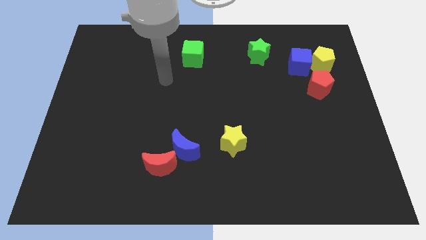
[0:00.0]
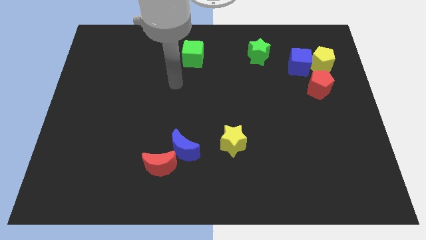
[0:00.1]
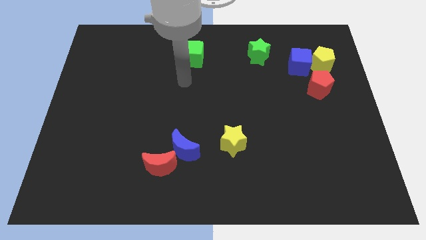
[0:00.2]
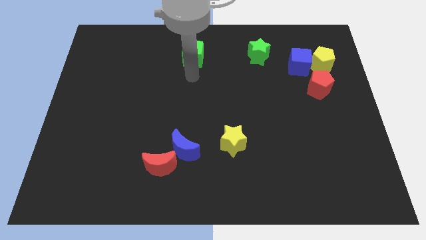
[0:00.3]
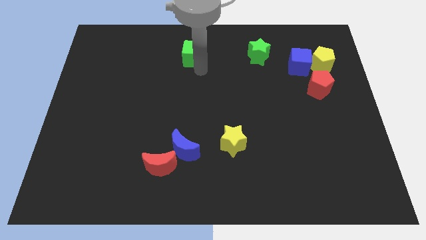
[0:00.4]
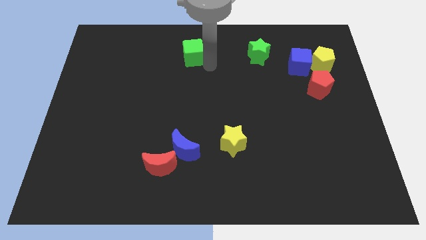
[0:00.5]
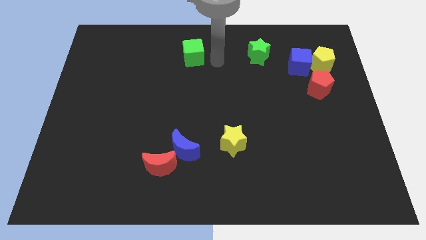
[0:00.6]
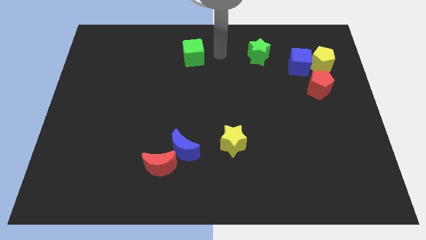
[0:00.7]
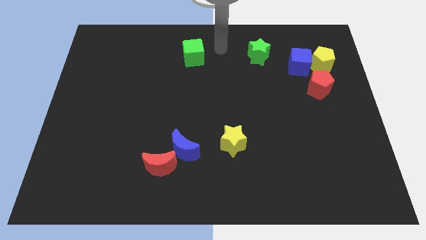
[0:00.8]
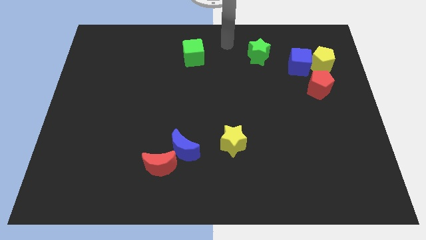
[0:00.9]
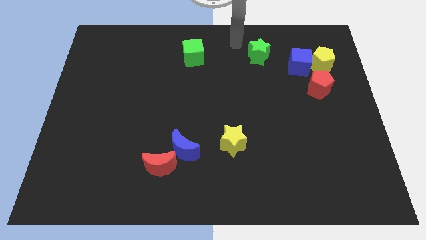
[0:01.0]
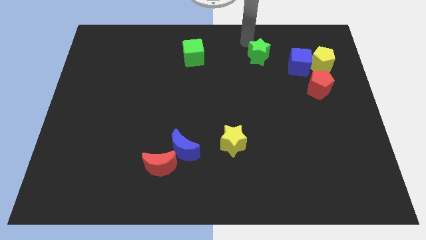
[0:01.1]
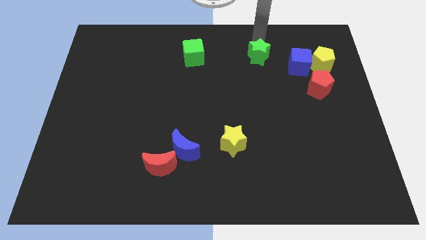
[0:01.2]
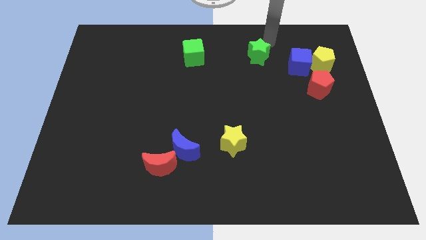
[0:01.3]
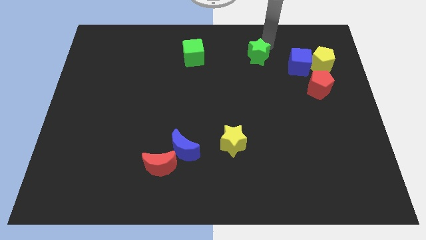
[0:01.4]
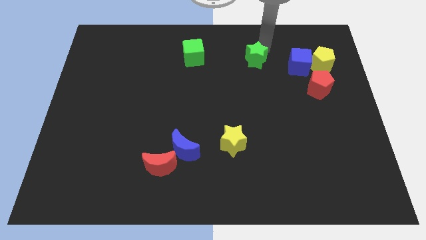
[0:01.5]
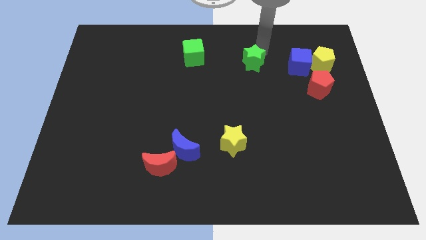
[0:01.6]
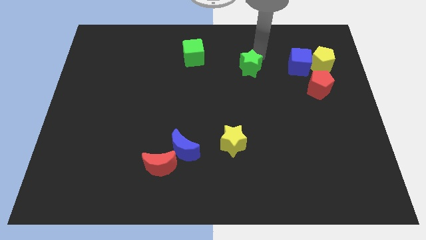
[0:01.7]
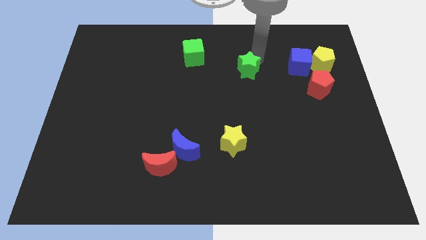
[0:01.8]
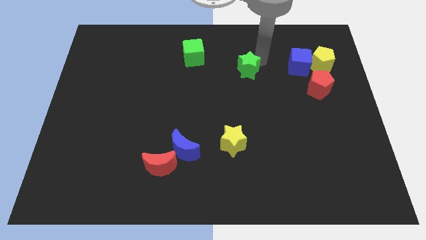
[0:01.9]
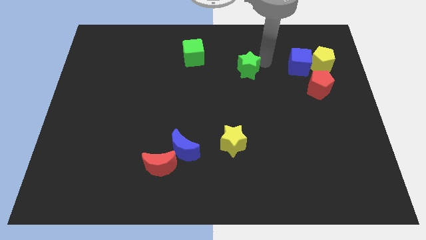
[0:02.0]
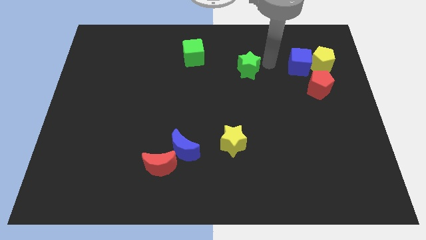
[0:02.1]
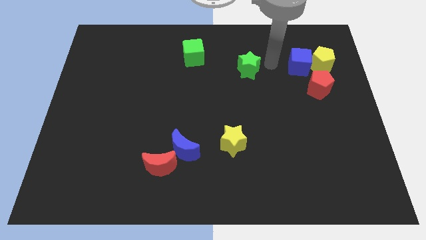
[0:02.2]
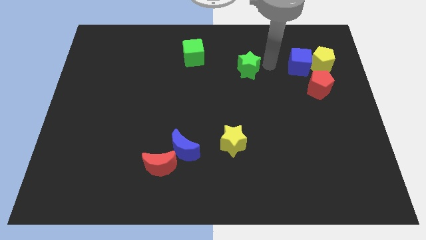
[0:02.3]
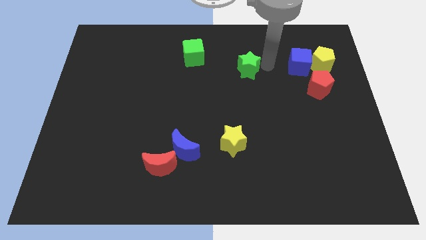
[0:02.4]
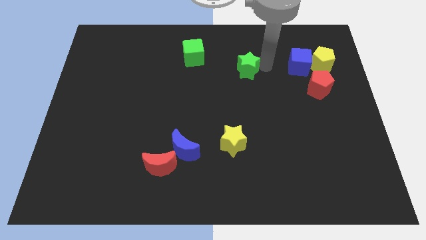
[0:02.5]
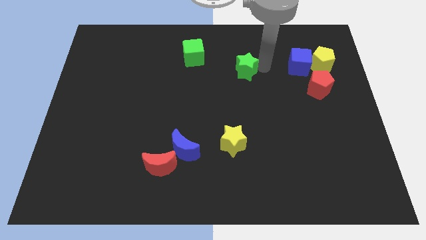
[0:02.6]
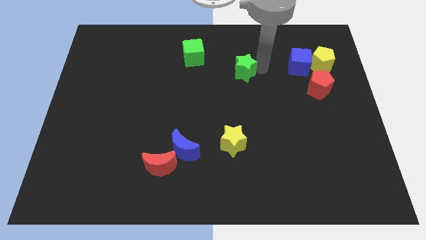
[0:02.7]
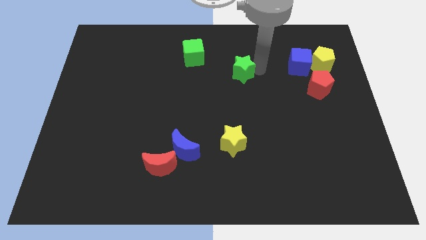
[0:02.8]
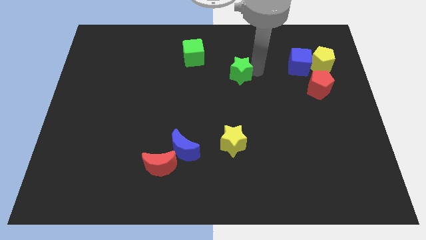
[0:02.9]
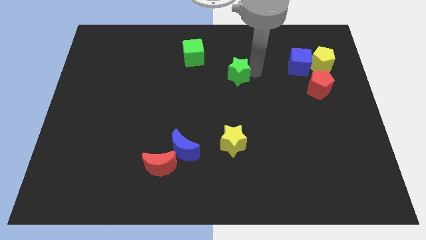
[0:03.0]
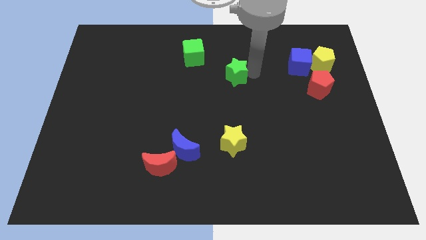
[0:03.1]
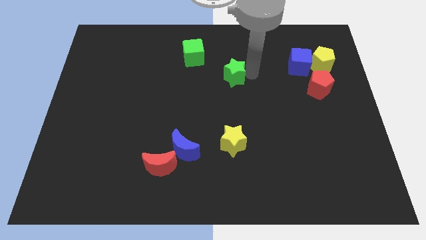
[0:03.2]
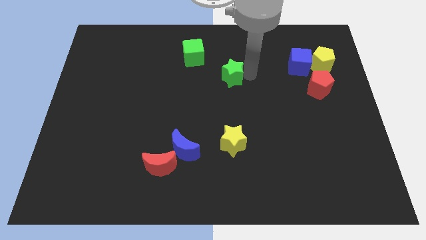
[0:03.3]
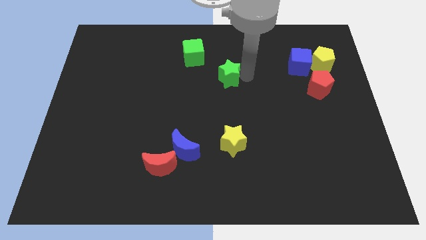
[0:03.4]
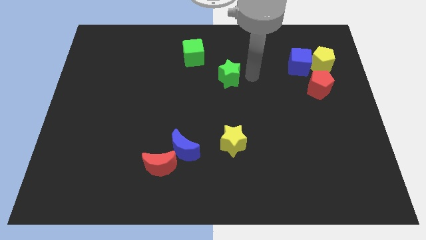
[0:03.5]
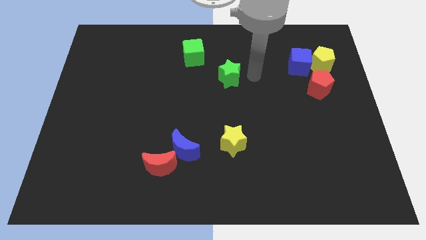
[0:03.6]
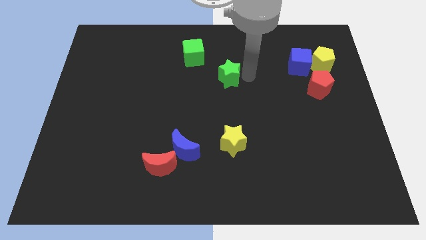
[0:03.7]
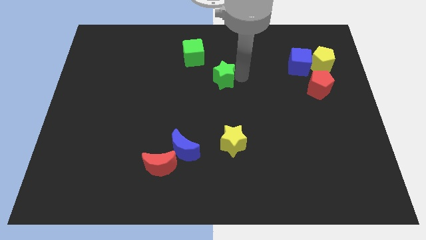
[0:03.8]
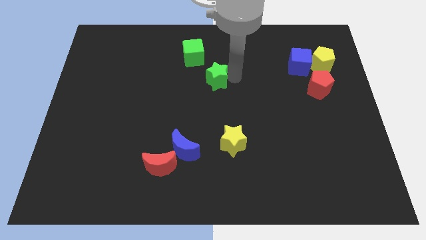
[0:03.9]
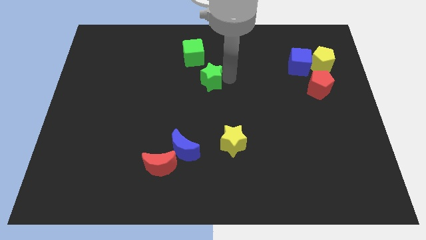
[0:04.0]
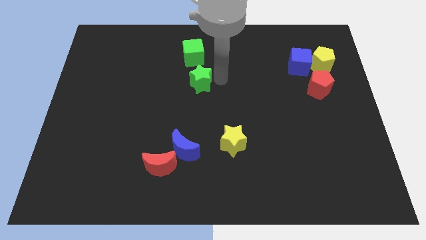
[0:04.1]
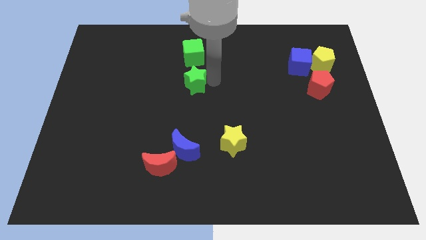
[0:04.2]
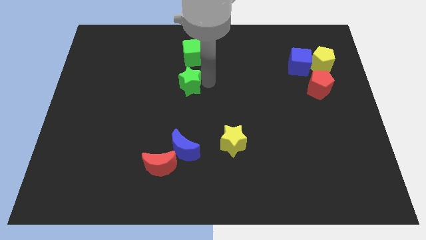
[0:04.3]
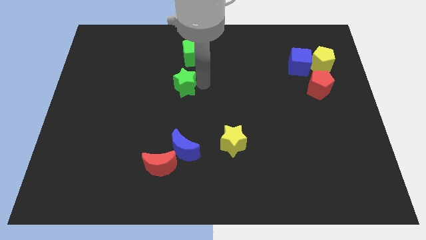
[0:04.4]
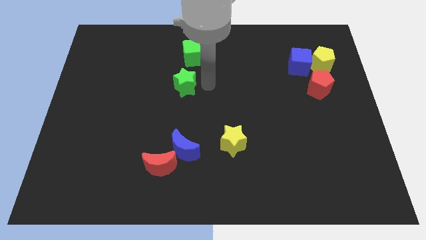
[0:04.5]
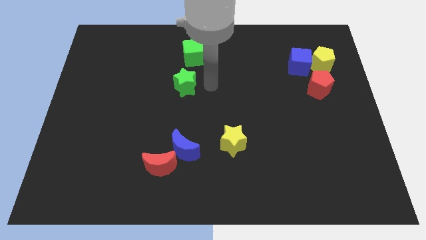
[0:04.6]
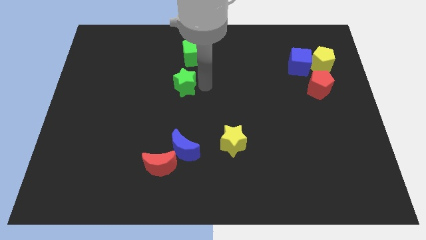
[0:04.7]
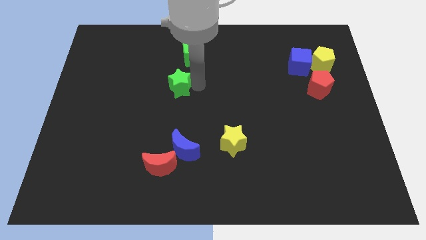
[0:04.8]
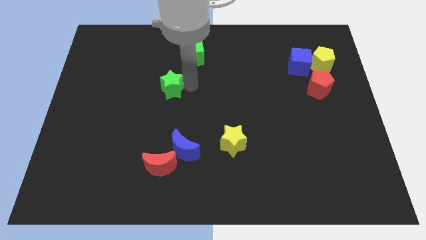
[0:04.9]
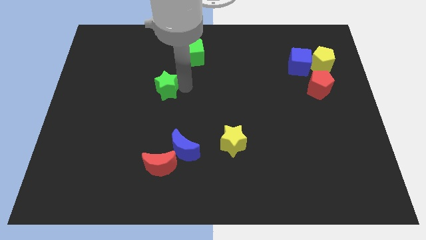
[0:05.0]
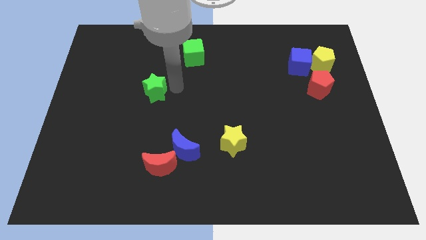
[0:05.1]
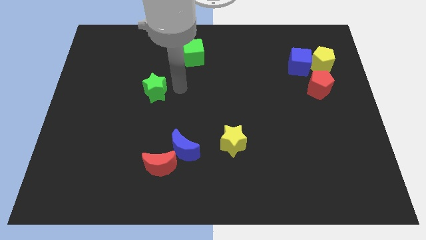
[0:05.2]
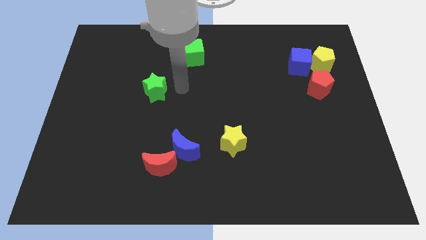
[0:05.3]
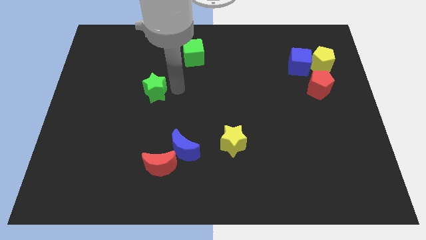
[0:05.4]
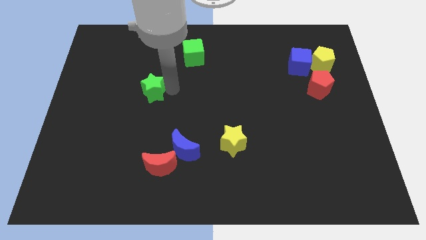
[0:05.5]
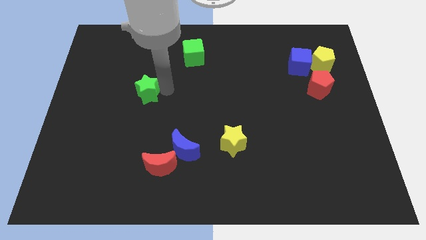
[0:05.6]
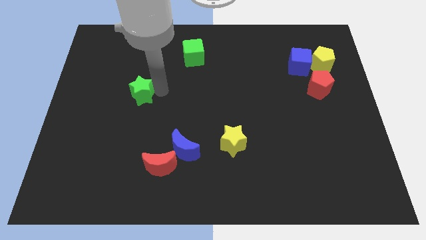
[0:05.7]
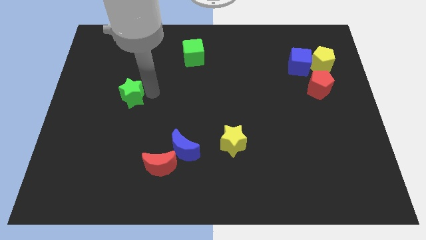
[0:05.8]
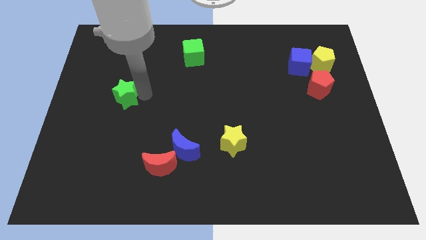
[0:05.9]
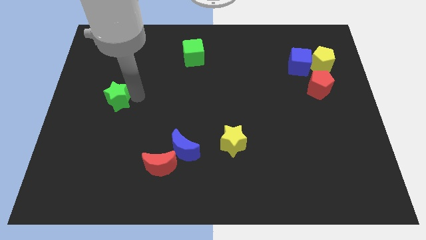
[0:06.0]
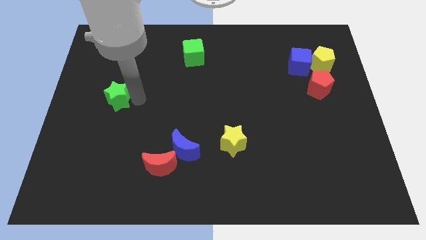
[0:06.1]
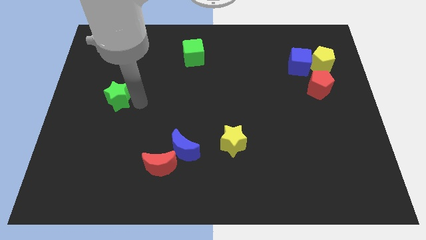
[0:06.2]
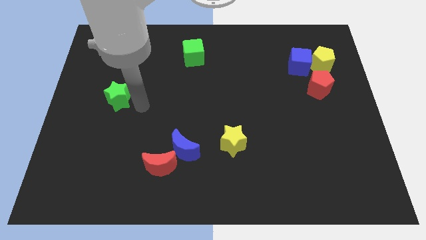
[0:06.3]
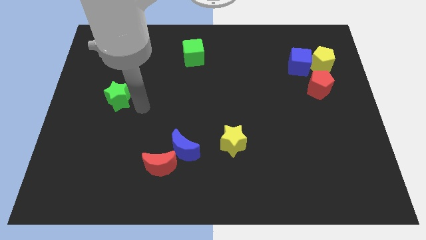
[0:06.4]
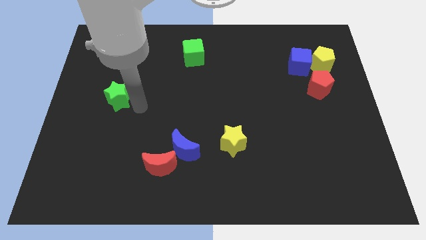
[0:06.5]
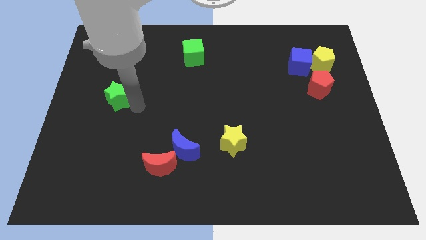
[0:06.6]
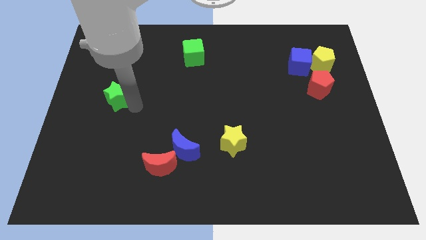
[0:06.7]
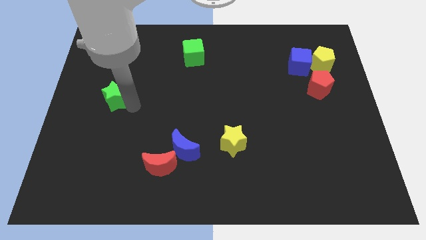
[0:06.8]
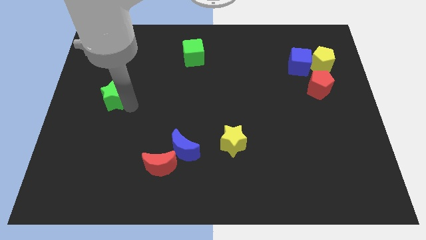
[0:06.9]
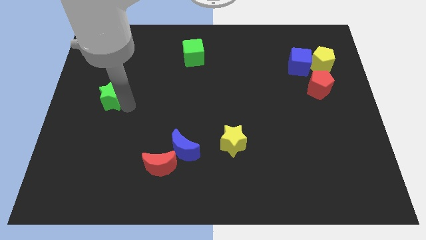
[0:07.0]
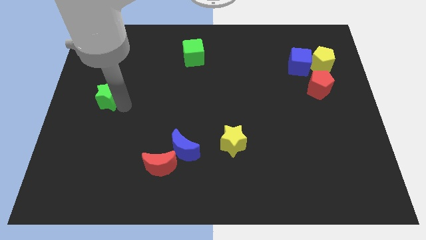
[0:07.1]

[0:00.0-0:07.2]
slide the green star to the left side of the board
